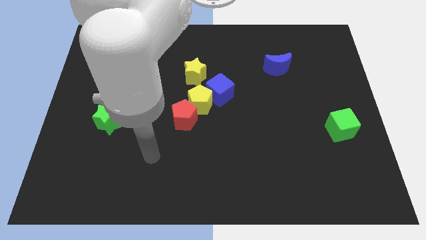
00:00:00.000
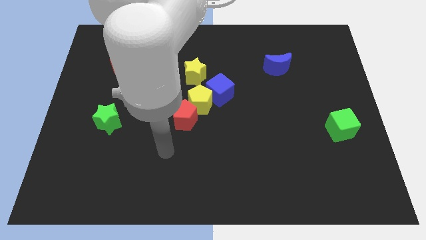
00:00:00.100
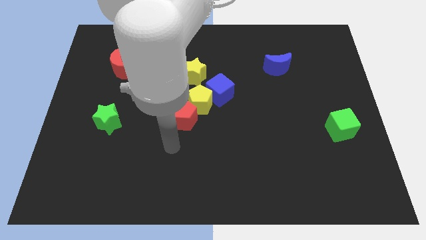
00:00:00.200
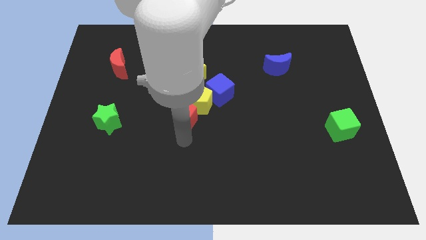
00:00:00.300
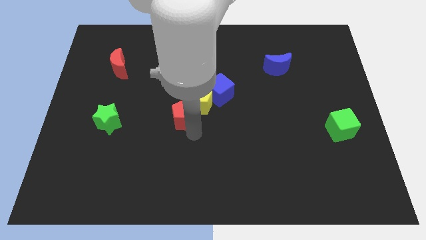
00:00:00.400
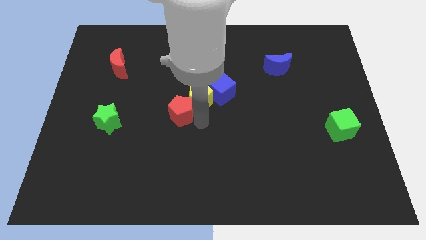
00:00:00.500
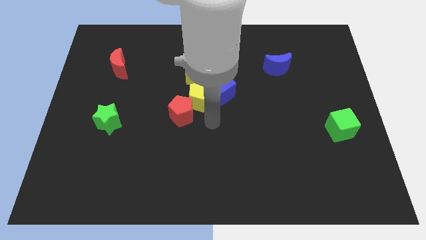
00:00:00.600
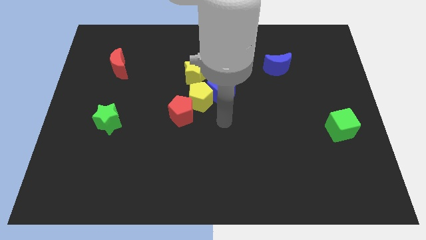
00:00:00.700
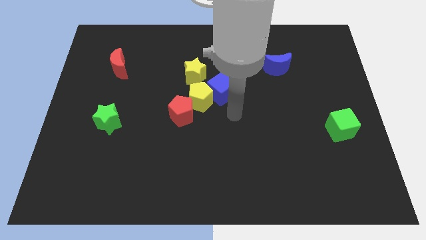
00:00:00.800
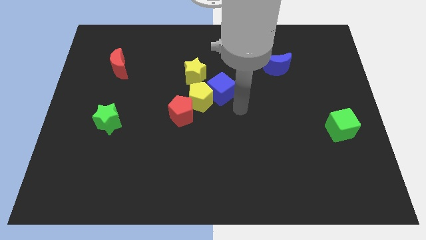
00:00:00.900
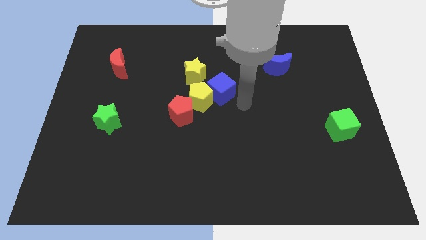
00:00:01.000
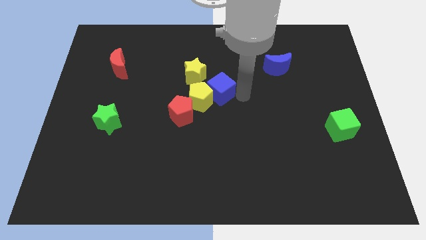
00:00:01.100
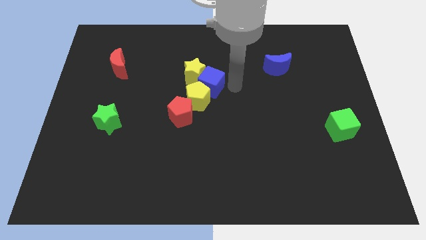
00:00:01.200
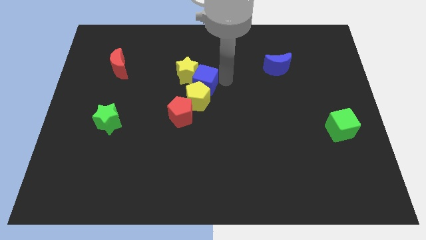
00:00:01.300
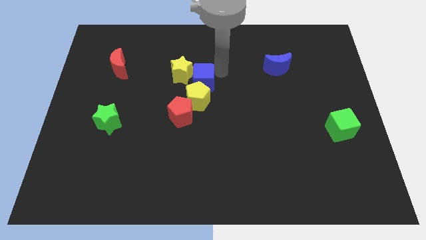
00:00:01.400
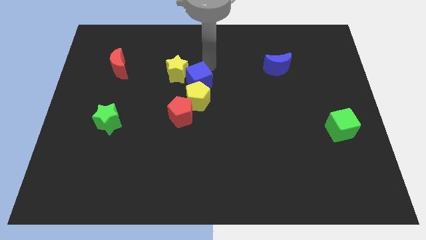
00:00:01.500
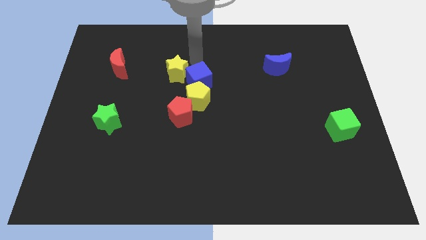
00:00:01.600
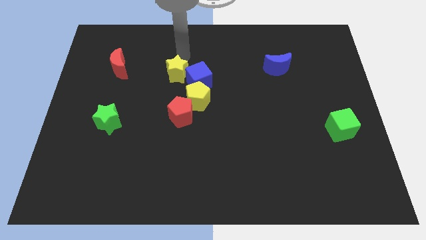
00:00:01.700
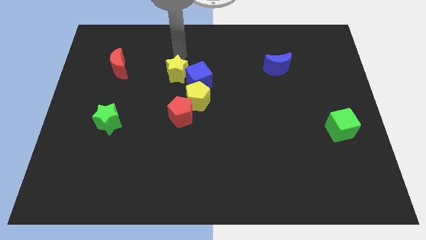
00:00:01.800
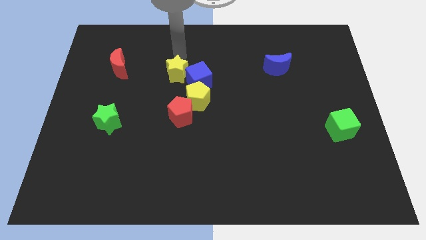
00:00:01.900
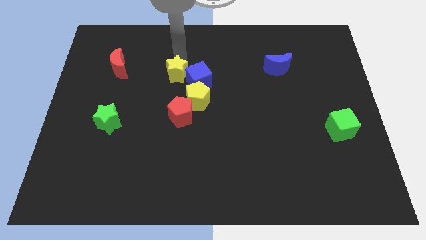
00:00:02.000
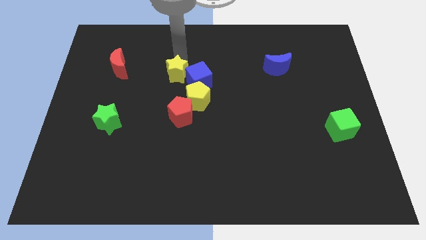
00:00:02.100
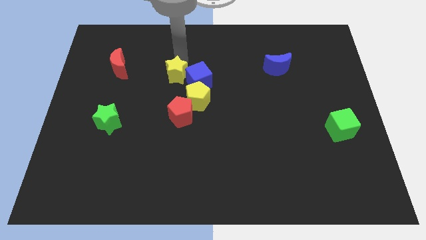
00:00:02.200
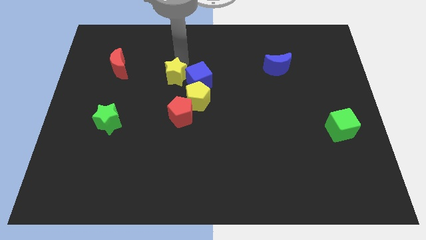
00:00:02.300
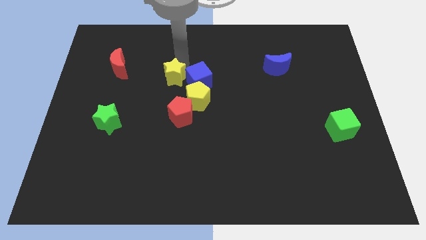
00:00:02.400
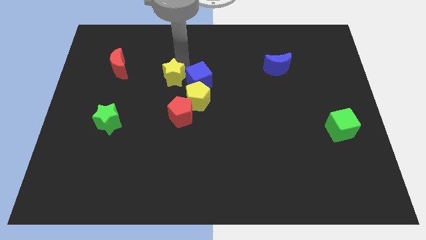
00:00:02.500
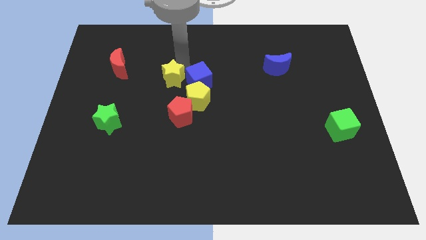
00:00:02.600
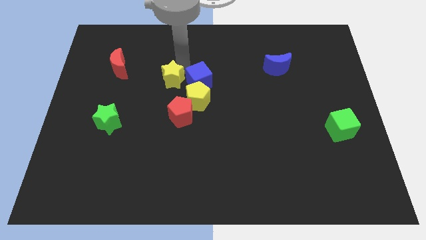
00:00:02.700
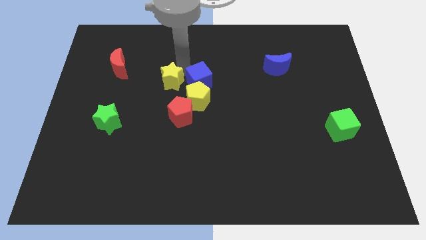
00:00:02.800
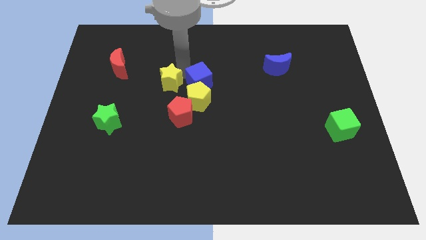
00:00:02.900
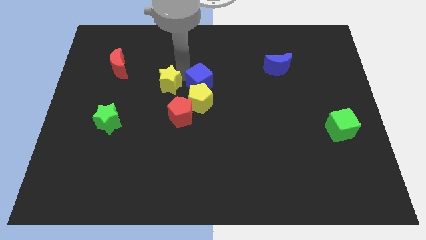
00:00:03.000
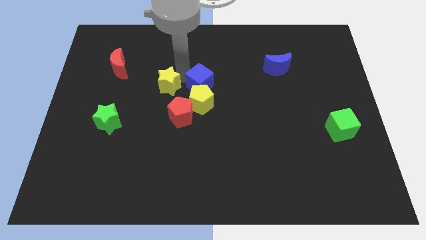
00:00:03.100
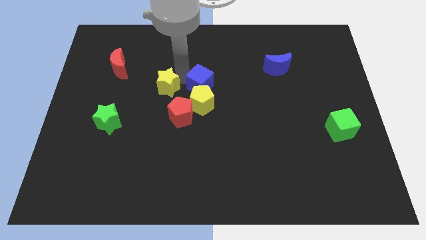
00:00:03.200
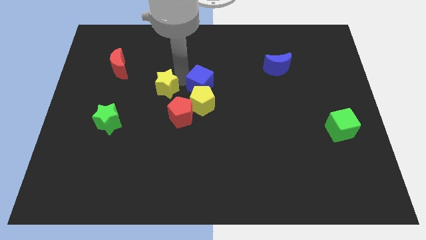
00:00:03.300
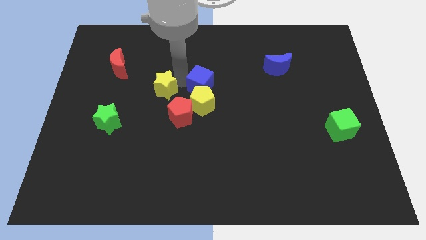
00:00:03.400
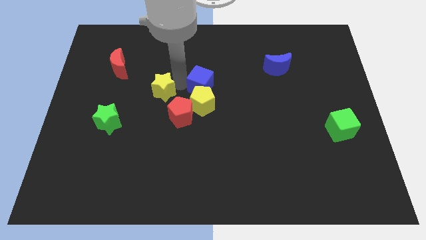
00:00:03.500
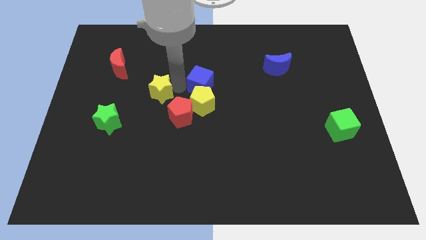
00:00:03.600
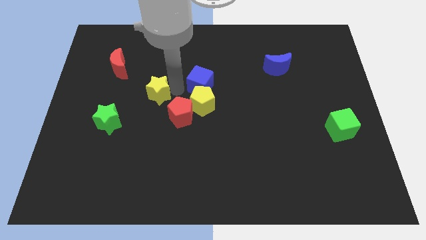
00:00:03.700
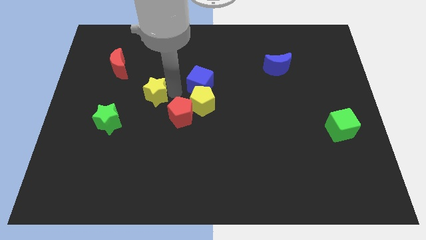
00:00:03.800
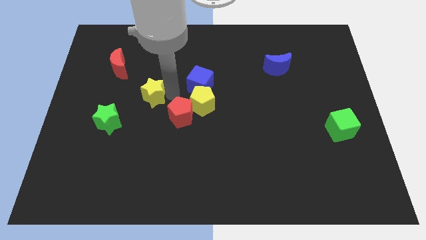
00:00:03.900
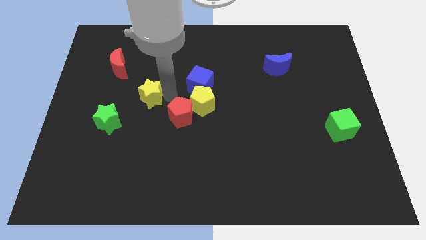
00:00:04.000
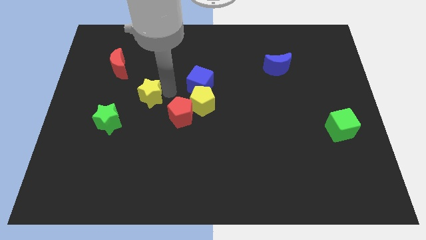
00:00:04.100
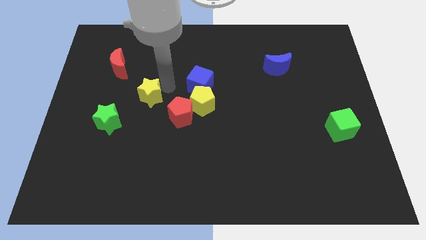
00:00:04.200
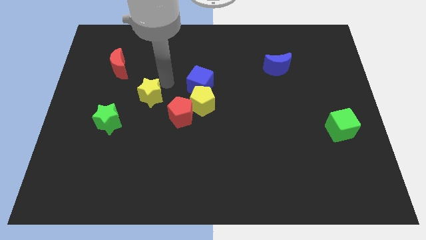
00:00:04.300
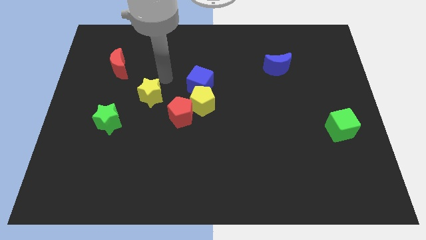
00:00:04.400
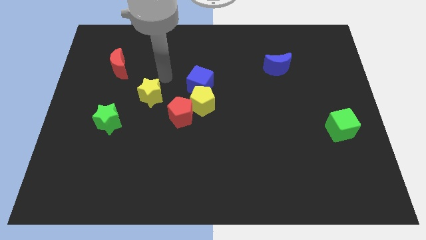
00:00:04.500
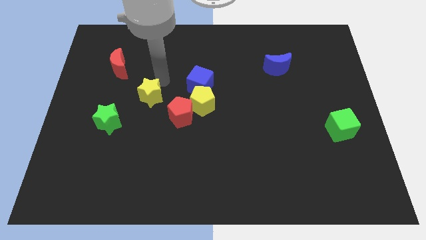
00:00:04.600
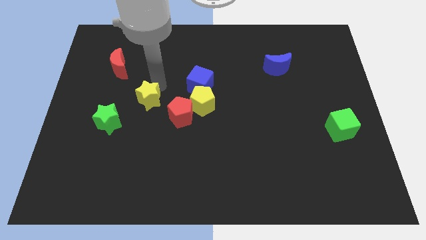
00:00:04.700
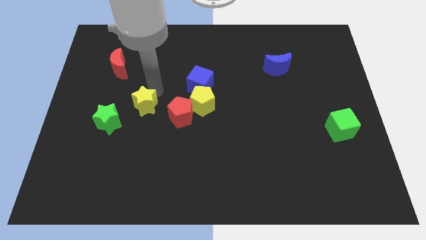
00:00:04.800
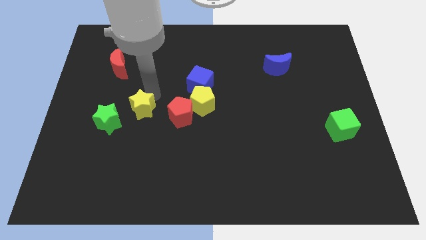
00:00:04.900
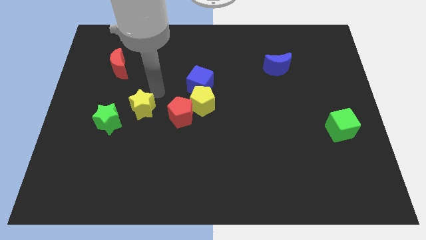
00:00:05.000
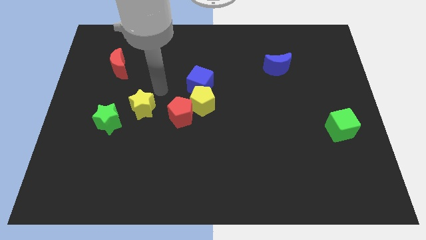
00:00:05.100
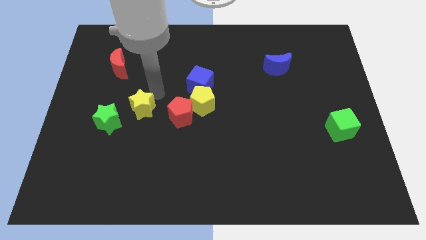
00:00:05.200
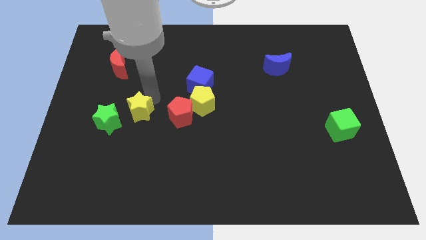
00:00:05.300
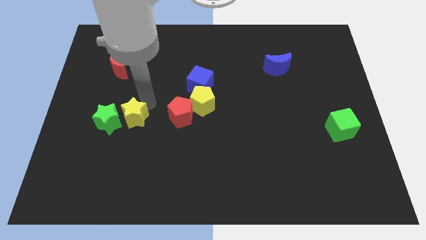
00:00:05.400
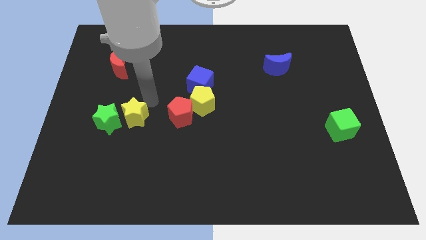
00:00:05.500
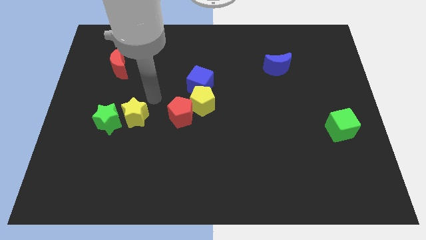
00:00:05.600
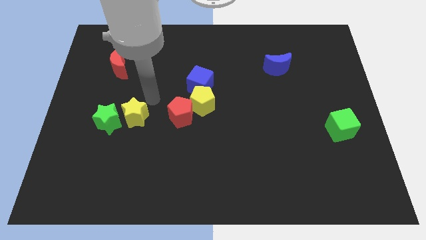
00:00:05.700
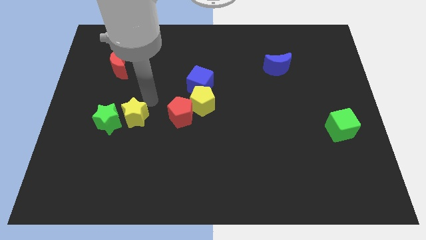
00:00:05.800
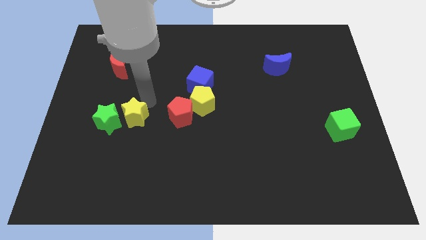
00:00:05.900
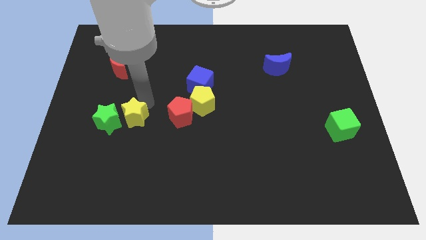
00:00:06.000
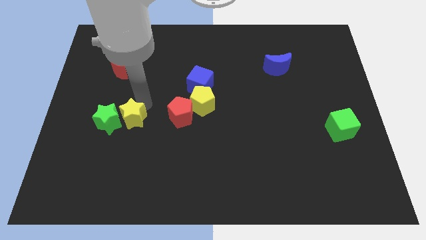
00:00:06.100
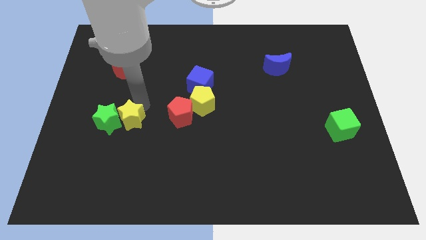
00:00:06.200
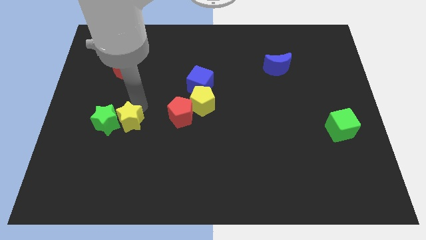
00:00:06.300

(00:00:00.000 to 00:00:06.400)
slide the yellow star downwards and left

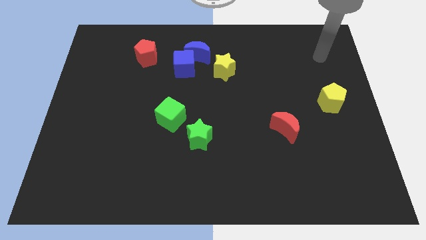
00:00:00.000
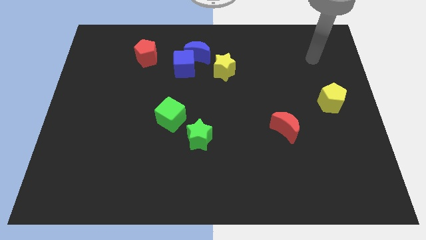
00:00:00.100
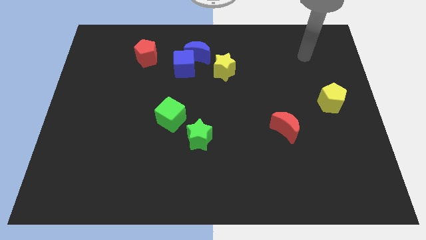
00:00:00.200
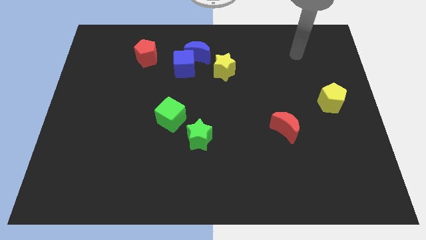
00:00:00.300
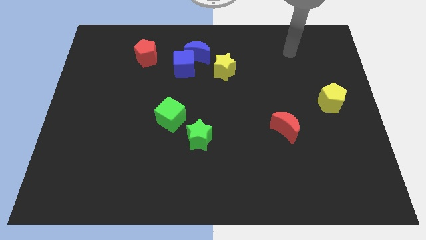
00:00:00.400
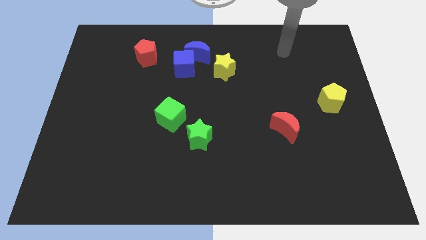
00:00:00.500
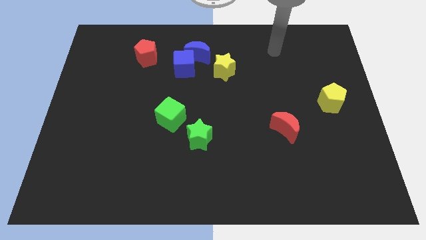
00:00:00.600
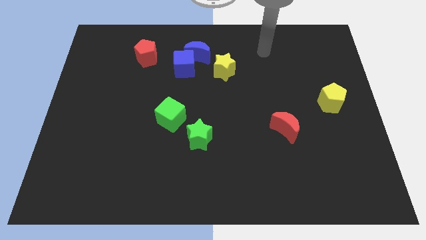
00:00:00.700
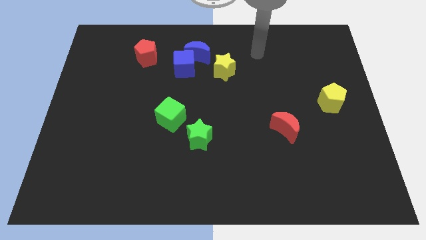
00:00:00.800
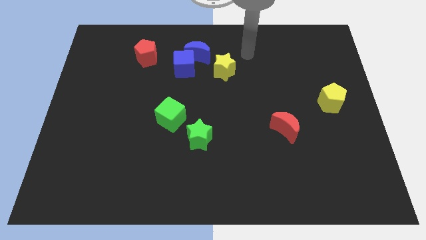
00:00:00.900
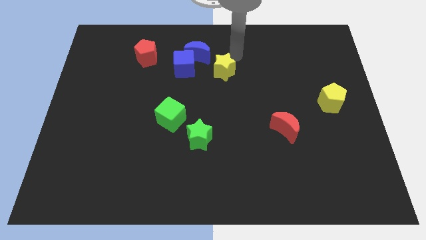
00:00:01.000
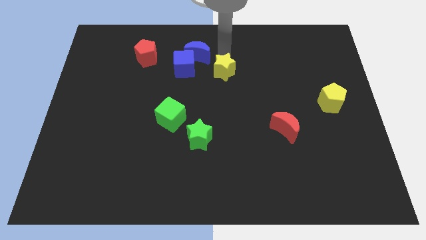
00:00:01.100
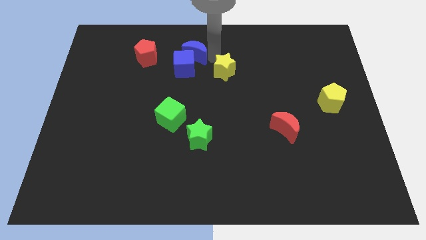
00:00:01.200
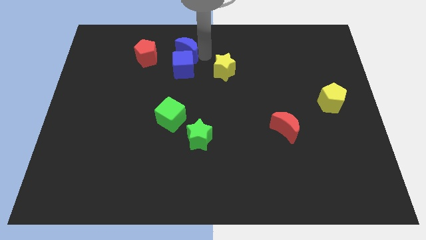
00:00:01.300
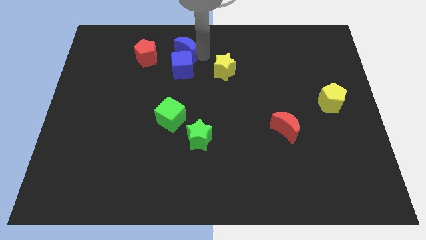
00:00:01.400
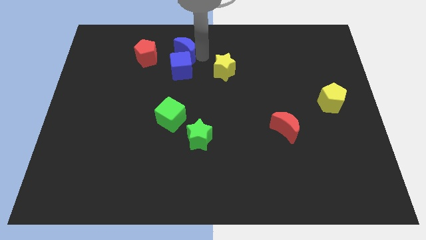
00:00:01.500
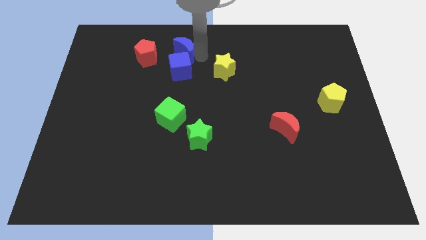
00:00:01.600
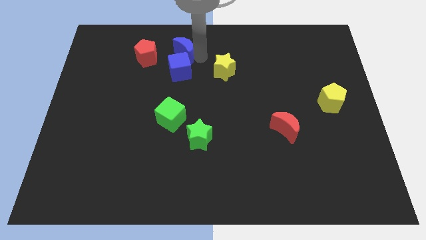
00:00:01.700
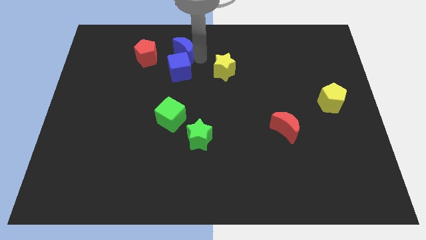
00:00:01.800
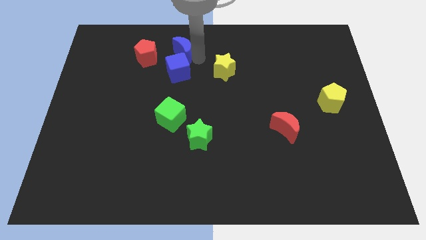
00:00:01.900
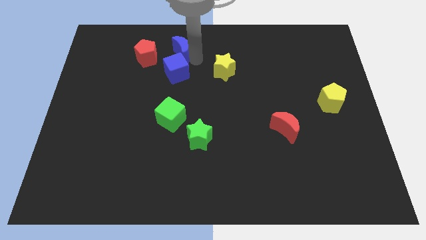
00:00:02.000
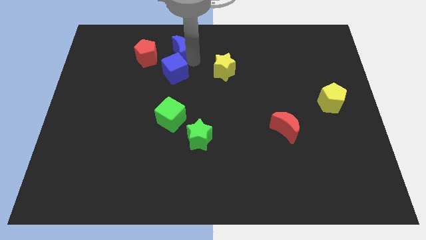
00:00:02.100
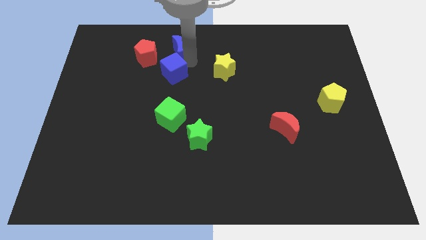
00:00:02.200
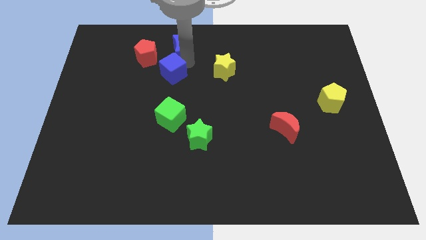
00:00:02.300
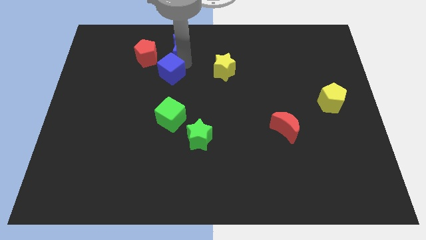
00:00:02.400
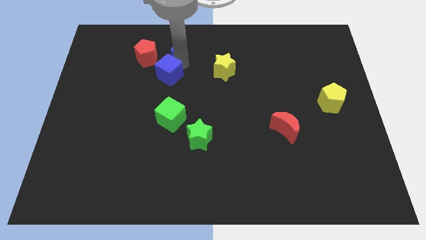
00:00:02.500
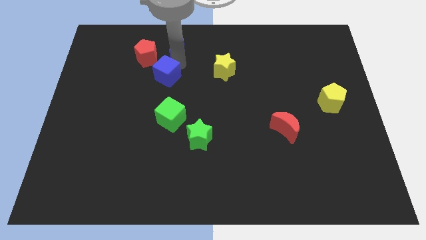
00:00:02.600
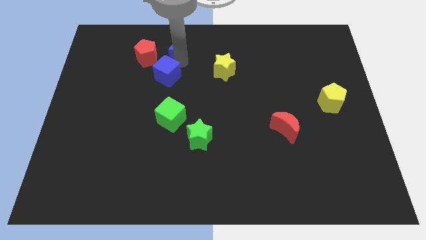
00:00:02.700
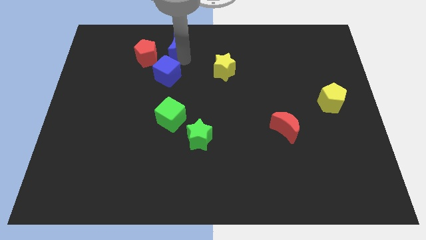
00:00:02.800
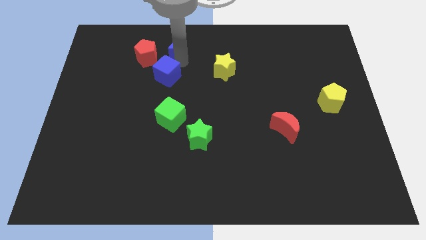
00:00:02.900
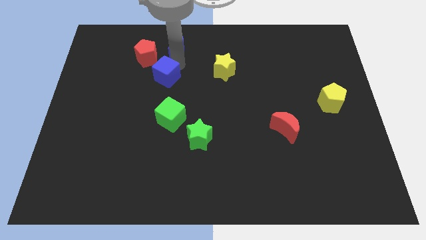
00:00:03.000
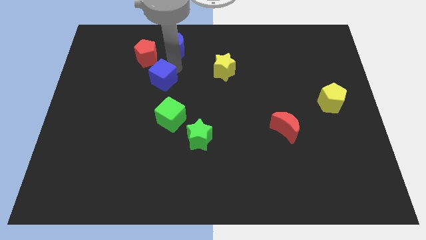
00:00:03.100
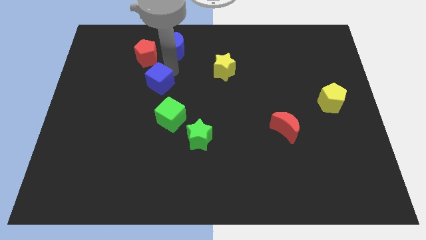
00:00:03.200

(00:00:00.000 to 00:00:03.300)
slightly push the blue cube diagonally downwards and to the left
